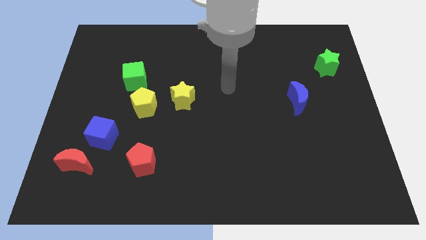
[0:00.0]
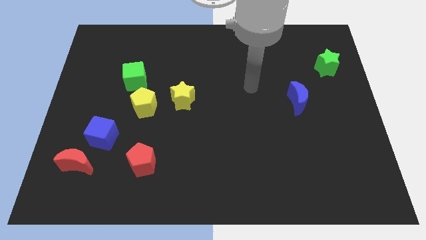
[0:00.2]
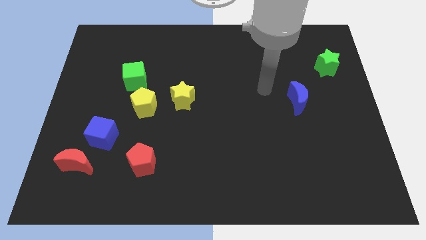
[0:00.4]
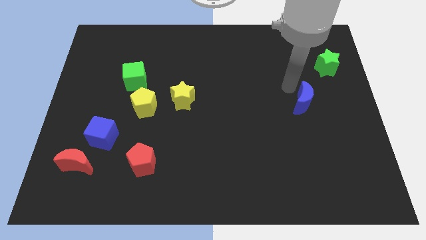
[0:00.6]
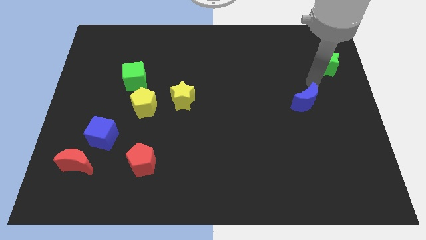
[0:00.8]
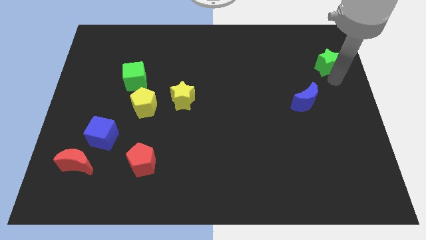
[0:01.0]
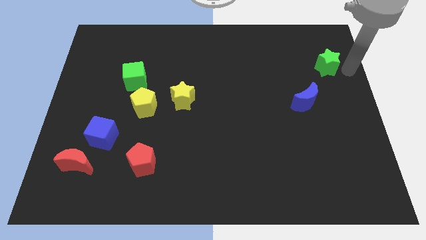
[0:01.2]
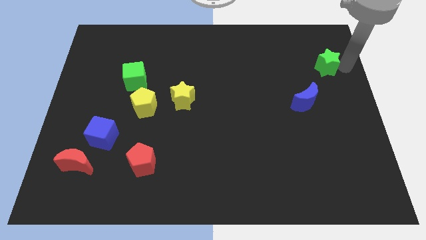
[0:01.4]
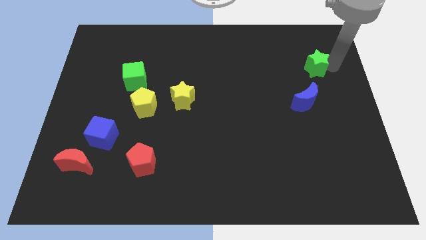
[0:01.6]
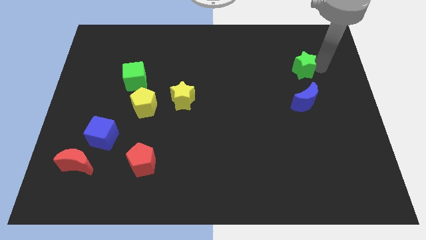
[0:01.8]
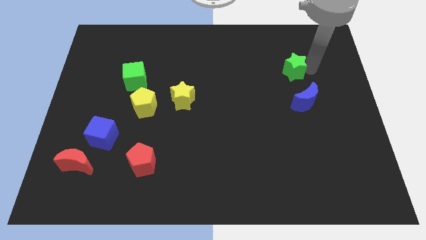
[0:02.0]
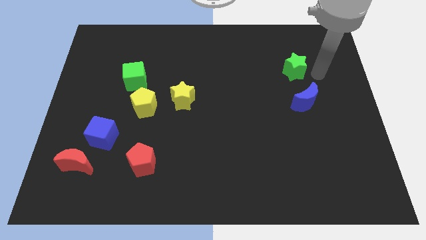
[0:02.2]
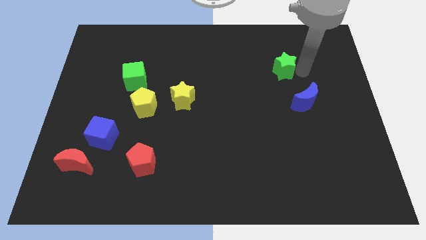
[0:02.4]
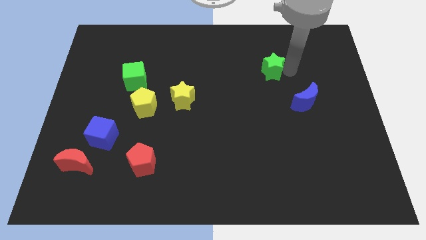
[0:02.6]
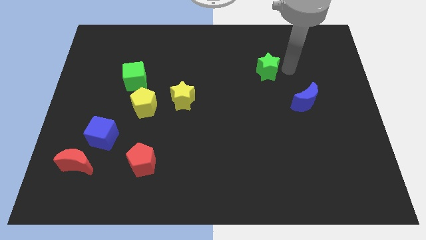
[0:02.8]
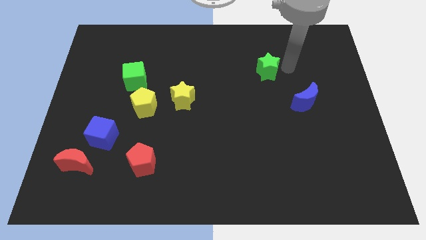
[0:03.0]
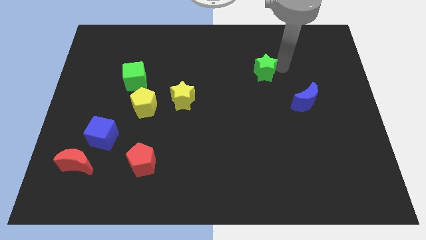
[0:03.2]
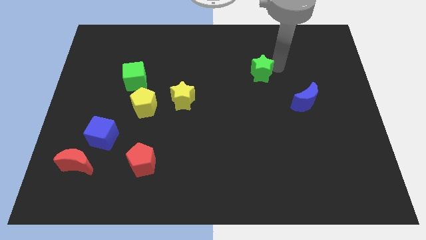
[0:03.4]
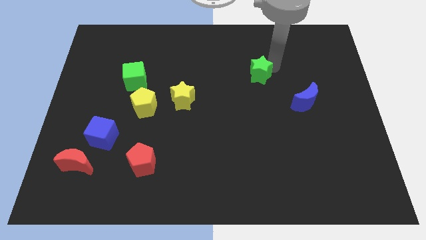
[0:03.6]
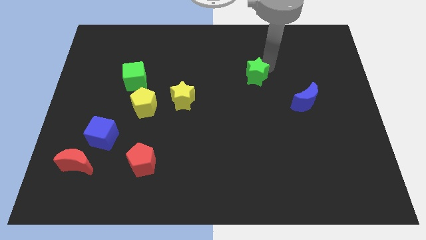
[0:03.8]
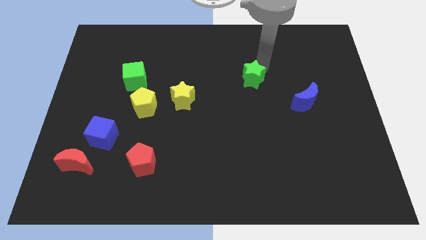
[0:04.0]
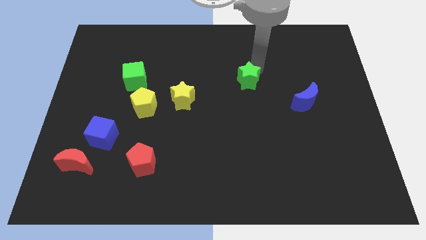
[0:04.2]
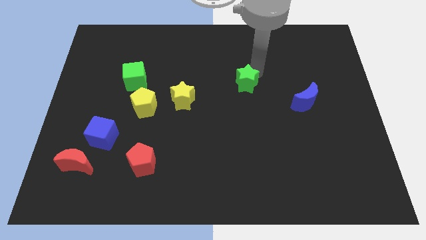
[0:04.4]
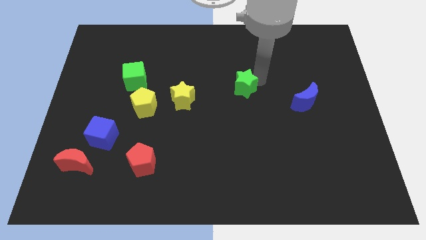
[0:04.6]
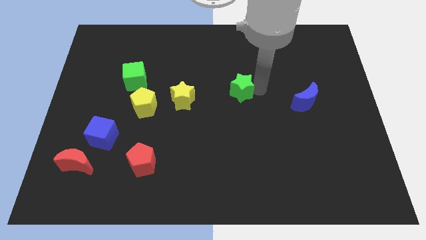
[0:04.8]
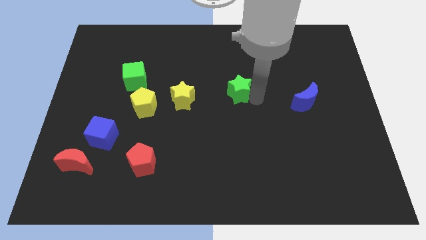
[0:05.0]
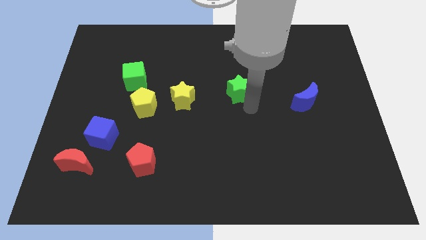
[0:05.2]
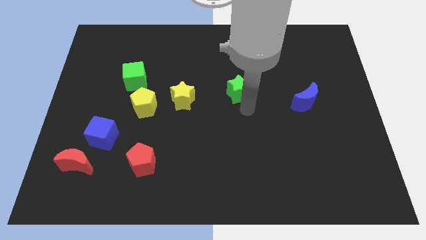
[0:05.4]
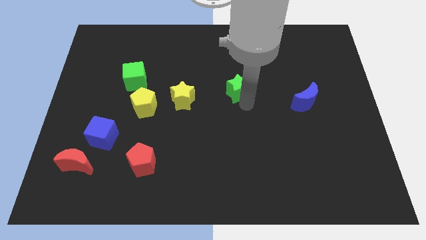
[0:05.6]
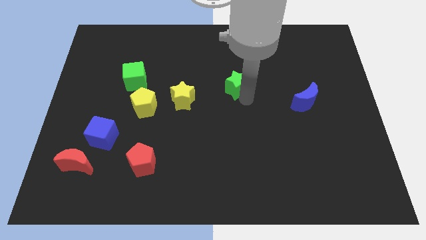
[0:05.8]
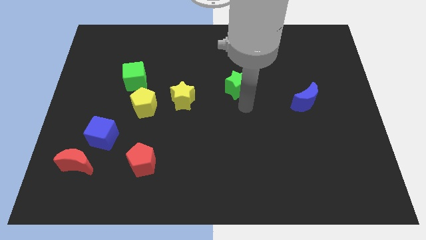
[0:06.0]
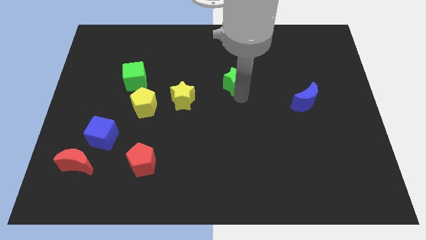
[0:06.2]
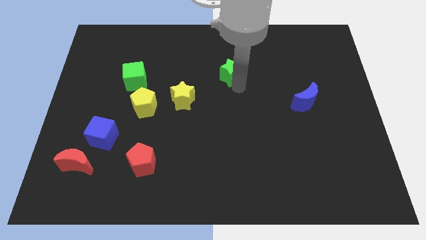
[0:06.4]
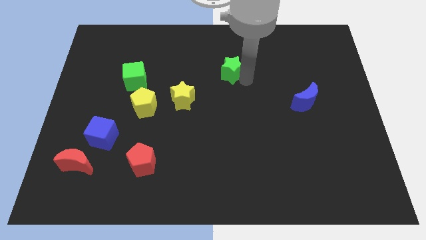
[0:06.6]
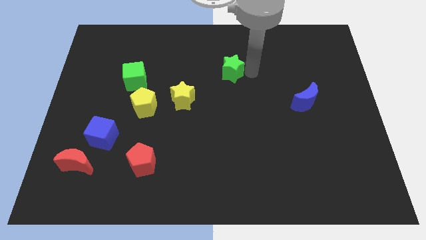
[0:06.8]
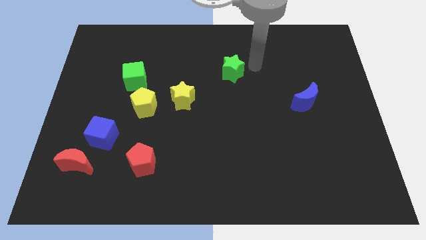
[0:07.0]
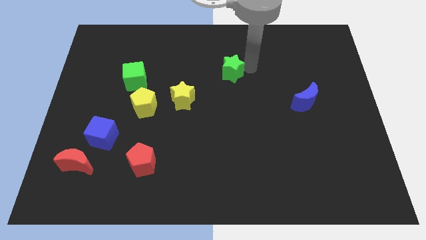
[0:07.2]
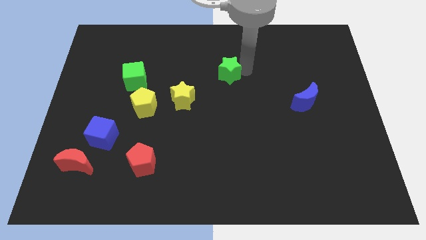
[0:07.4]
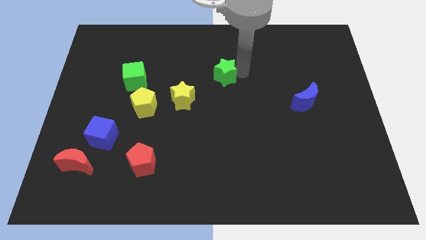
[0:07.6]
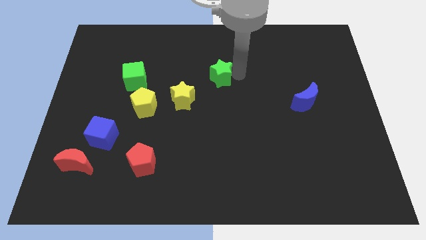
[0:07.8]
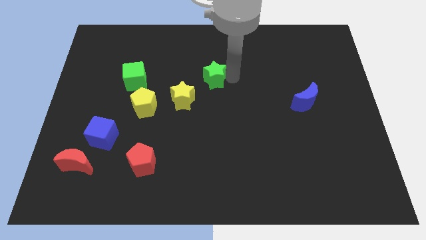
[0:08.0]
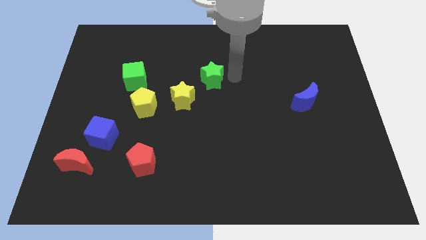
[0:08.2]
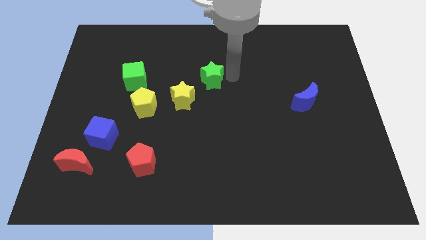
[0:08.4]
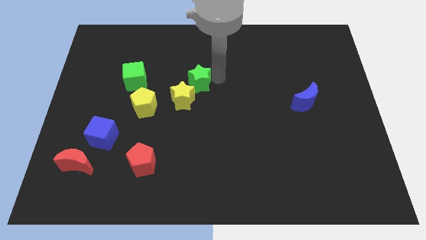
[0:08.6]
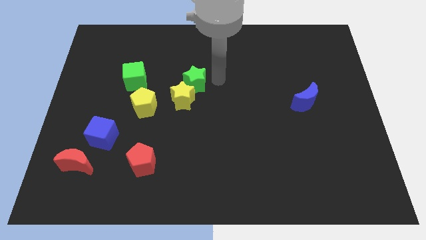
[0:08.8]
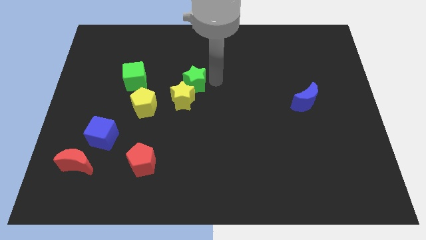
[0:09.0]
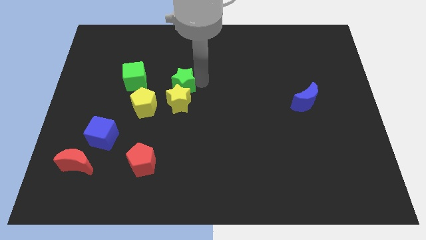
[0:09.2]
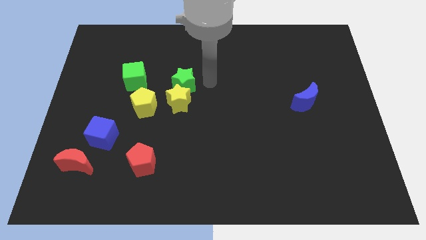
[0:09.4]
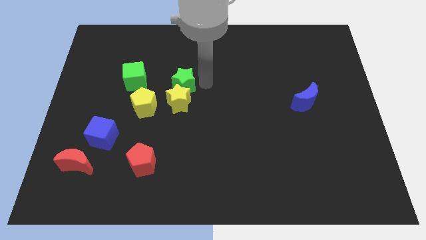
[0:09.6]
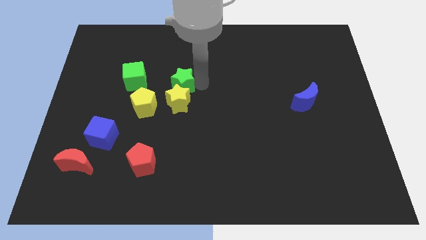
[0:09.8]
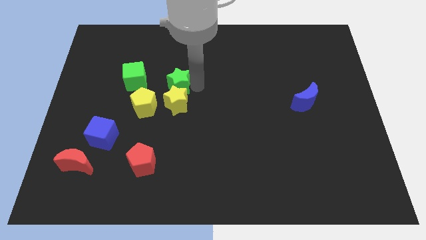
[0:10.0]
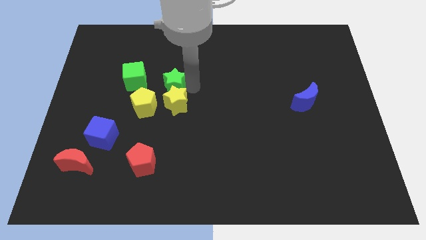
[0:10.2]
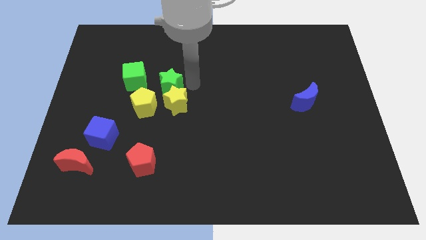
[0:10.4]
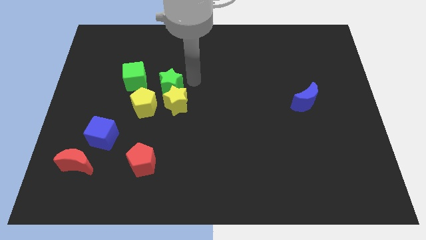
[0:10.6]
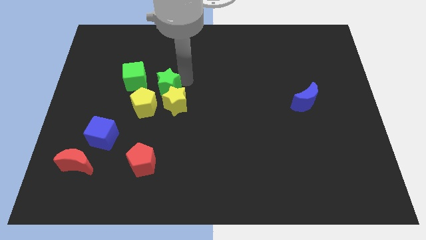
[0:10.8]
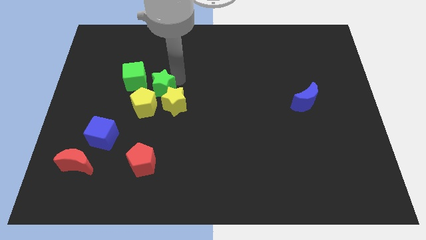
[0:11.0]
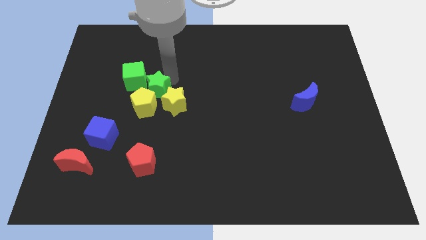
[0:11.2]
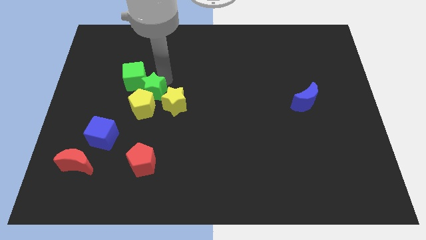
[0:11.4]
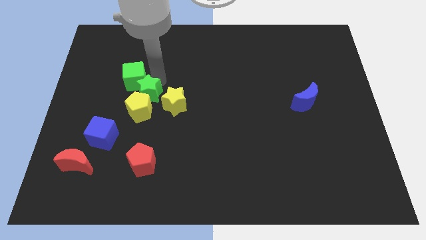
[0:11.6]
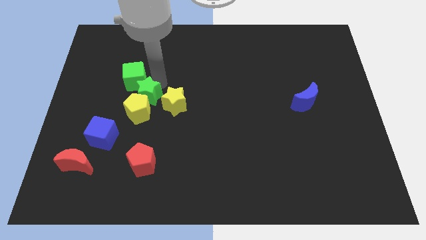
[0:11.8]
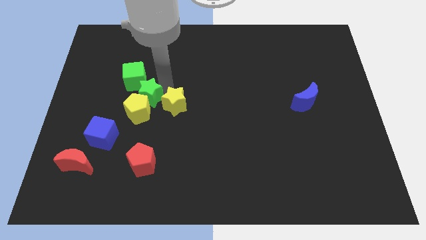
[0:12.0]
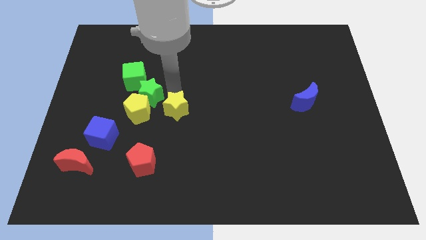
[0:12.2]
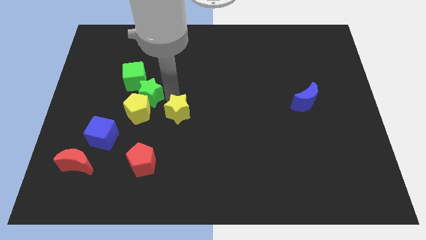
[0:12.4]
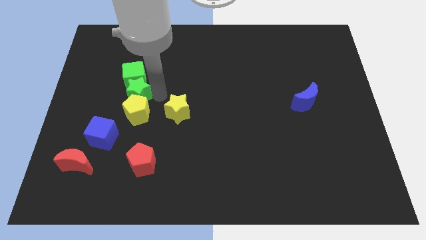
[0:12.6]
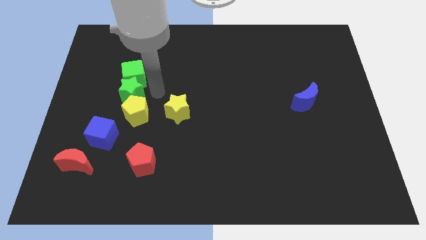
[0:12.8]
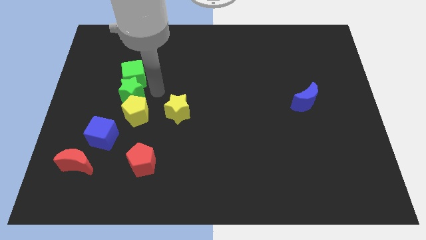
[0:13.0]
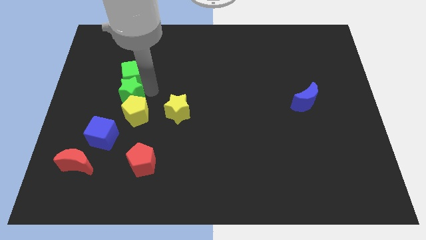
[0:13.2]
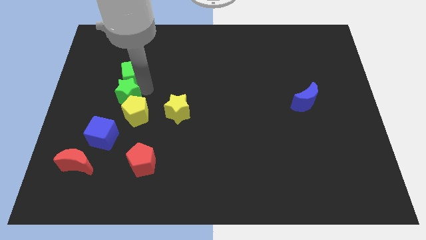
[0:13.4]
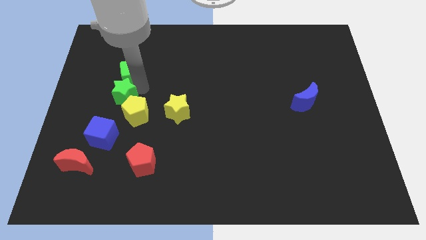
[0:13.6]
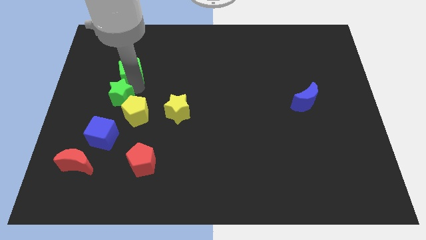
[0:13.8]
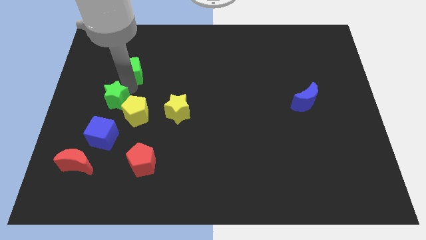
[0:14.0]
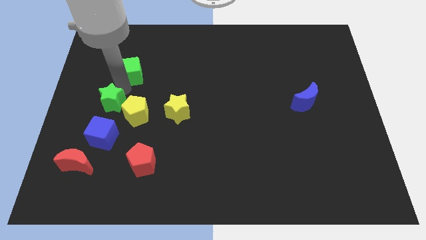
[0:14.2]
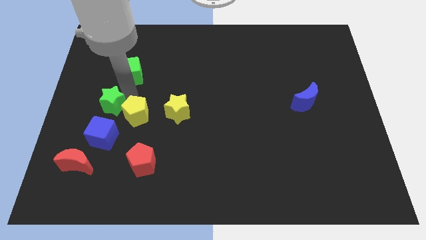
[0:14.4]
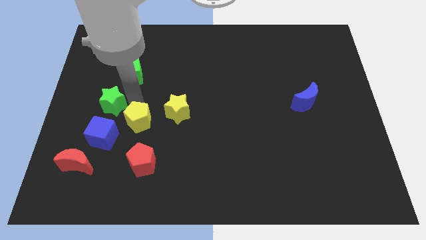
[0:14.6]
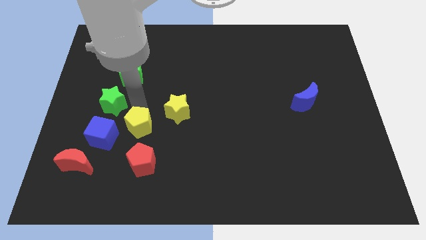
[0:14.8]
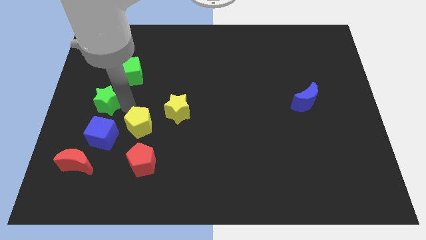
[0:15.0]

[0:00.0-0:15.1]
slide the green star to the left side of the board
